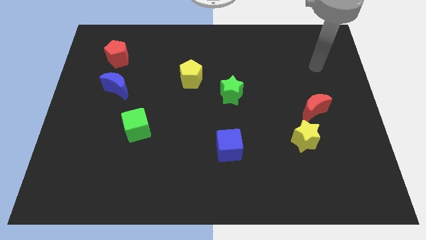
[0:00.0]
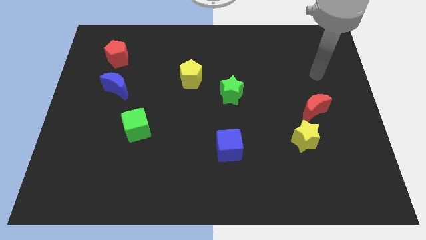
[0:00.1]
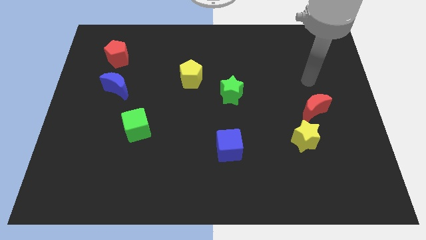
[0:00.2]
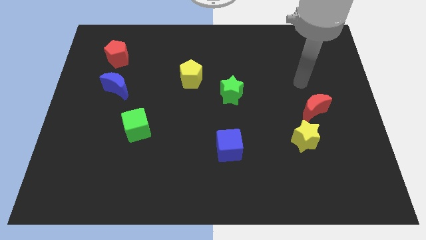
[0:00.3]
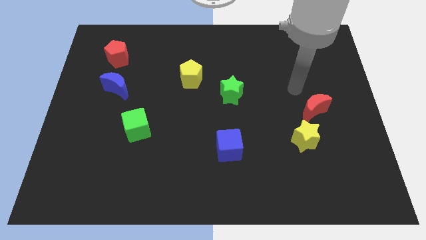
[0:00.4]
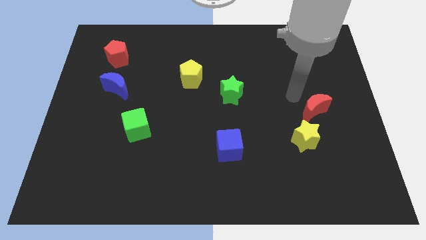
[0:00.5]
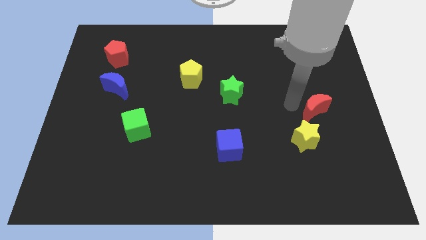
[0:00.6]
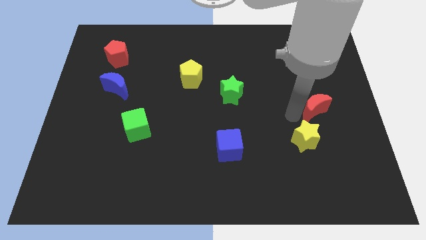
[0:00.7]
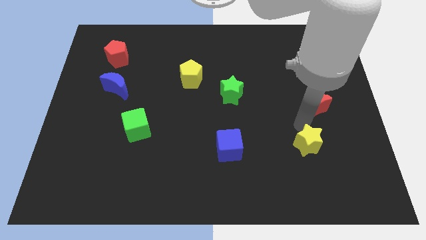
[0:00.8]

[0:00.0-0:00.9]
move the red moon away from the yellow star

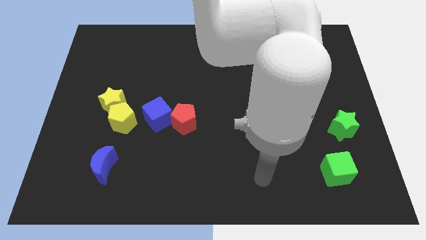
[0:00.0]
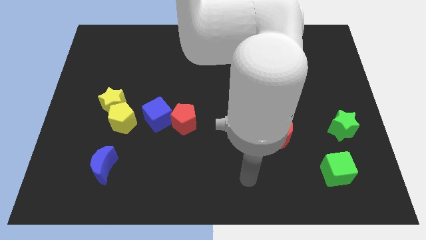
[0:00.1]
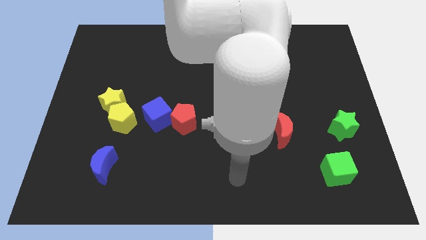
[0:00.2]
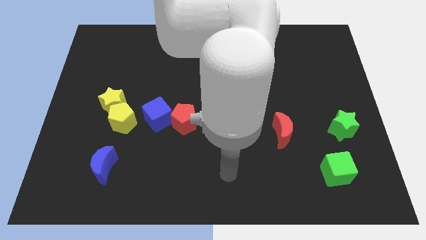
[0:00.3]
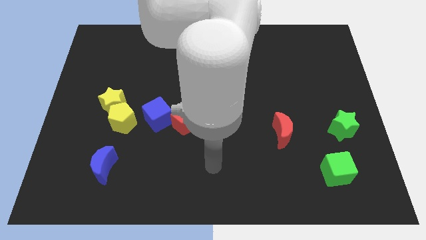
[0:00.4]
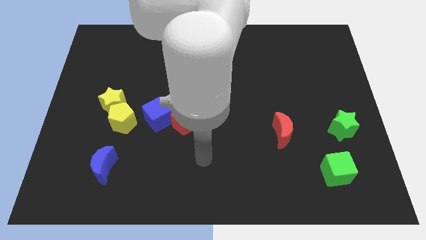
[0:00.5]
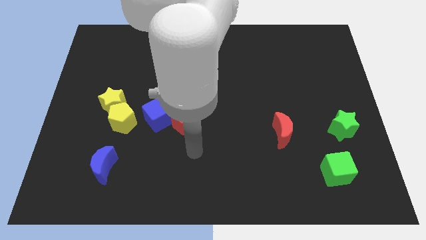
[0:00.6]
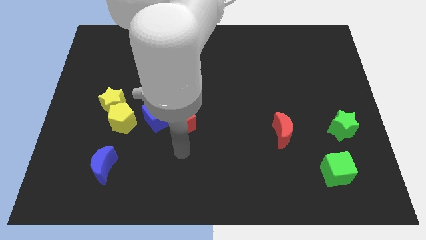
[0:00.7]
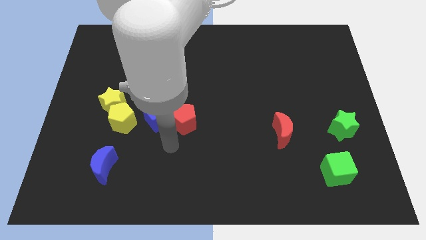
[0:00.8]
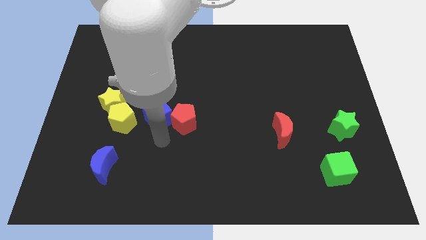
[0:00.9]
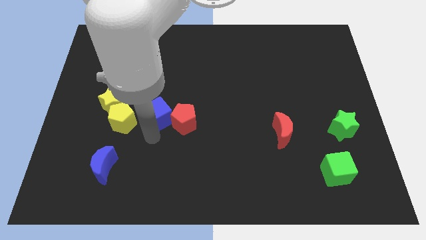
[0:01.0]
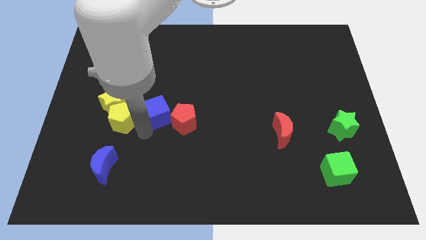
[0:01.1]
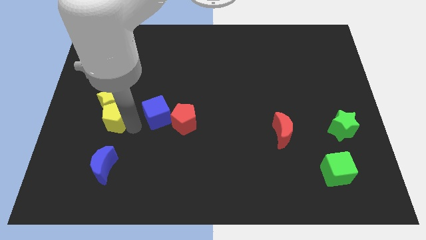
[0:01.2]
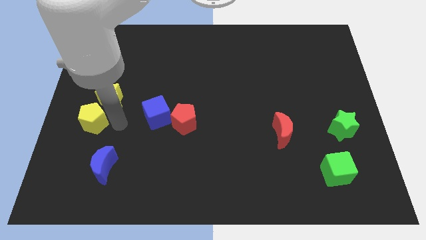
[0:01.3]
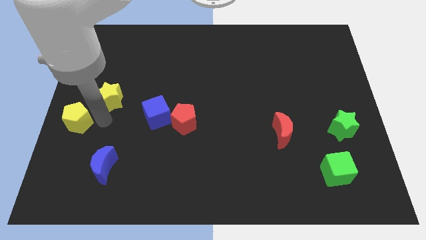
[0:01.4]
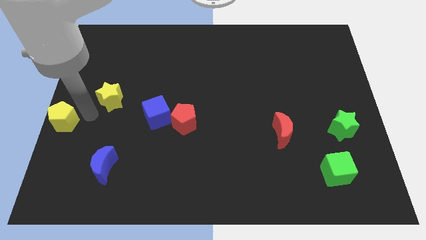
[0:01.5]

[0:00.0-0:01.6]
move the yellow star away from the yellow pentagon

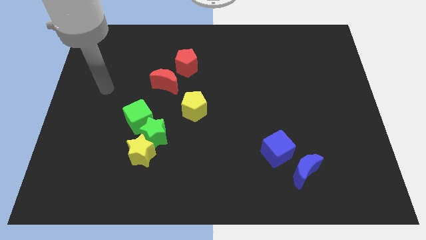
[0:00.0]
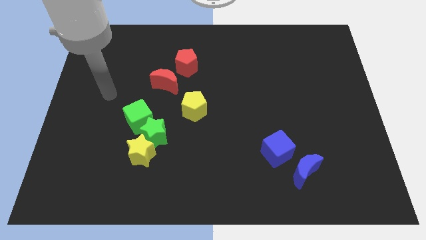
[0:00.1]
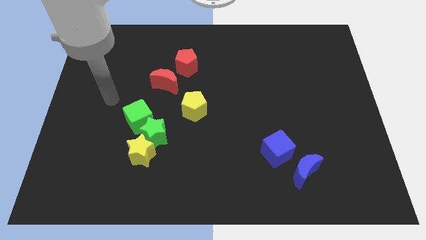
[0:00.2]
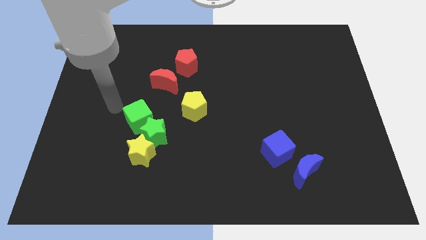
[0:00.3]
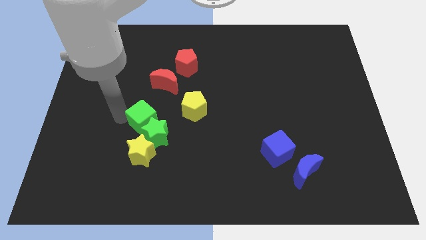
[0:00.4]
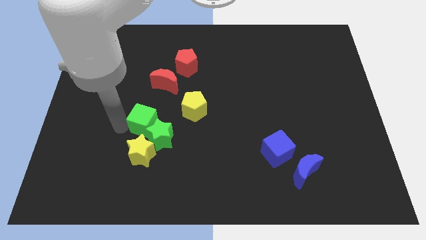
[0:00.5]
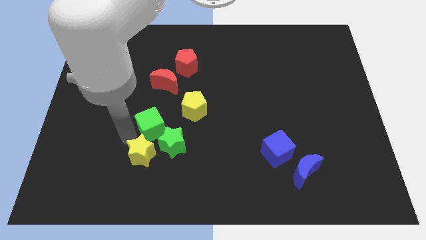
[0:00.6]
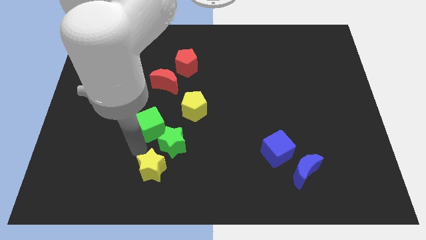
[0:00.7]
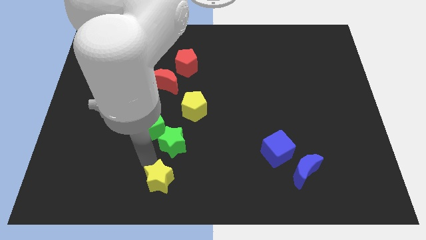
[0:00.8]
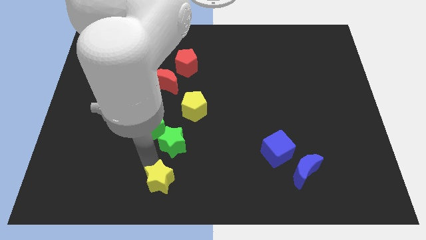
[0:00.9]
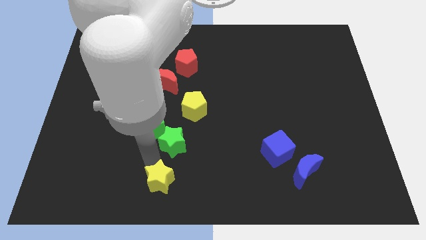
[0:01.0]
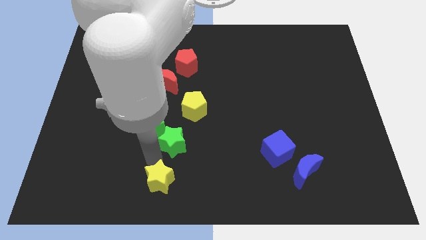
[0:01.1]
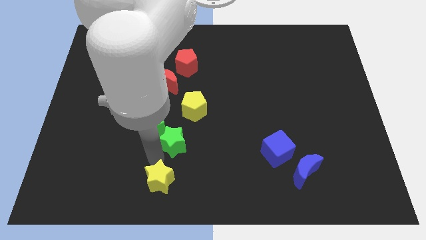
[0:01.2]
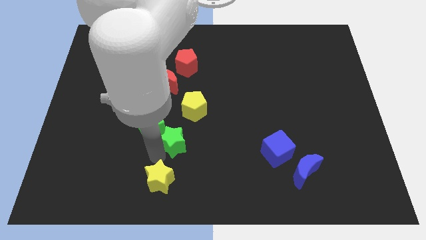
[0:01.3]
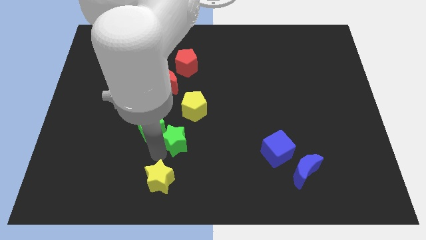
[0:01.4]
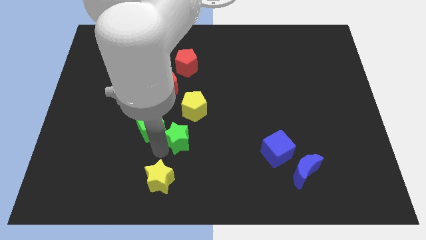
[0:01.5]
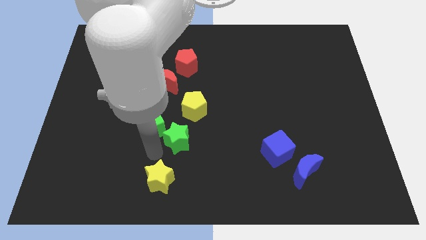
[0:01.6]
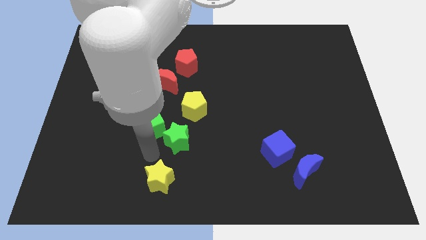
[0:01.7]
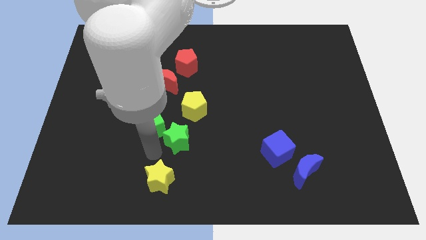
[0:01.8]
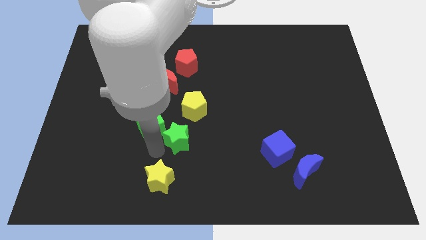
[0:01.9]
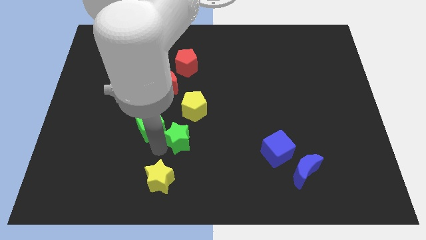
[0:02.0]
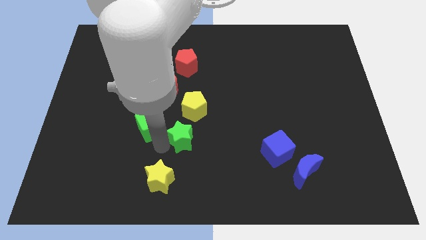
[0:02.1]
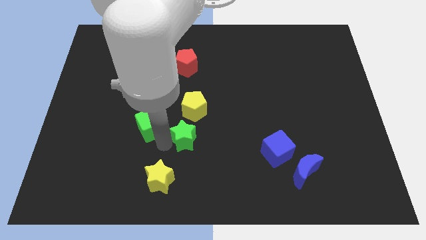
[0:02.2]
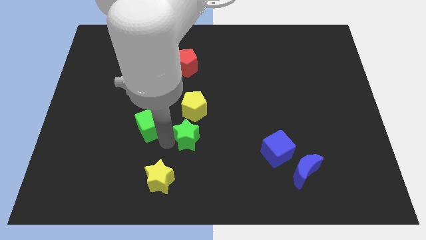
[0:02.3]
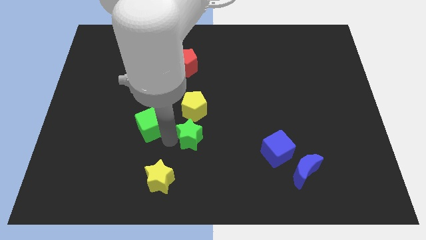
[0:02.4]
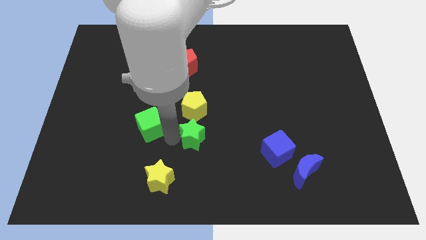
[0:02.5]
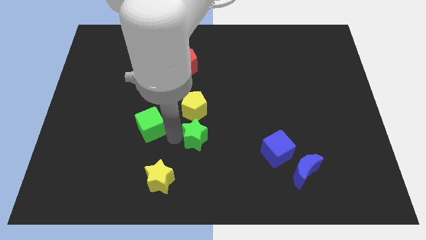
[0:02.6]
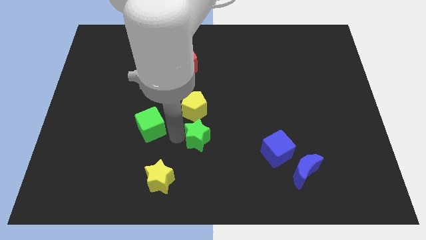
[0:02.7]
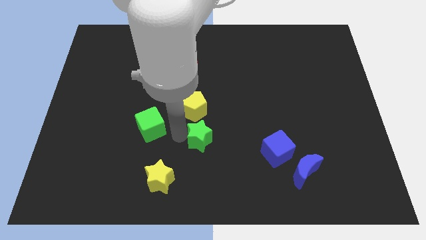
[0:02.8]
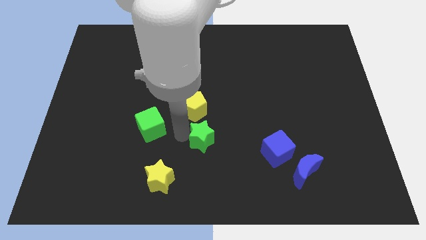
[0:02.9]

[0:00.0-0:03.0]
separate the green star from the yellow star and green cube

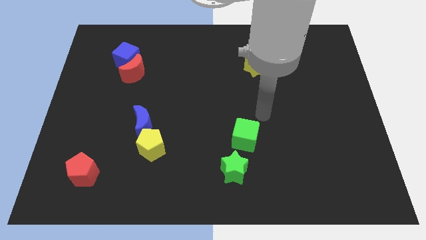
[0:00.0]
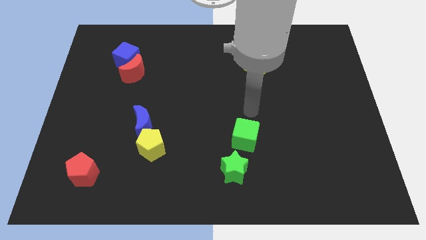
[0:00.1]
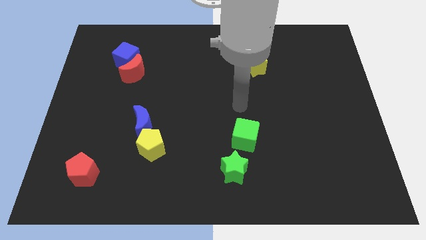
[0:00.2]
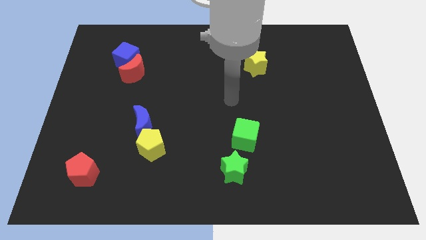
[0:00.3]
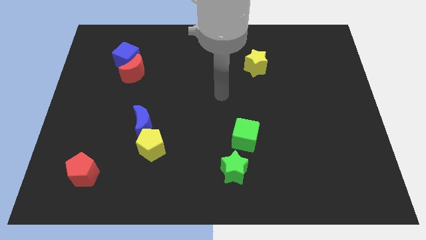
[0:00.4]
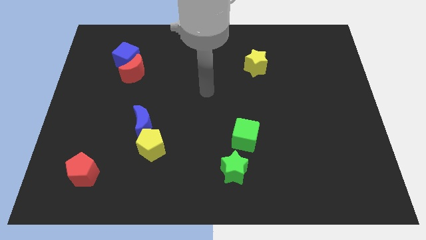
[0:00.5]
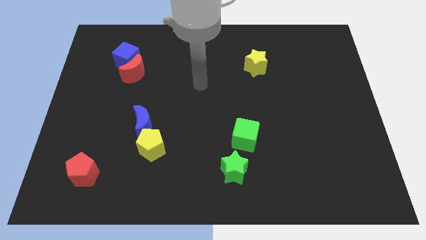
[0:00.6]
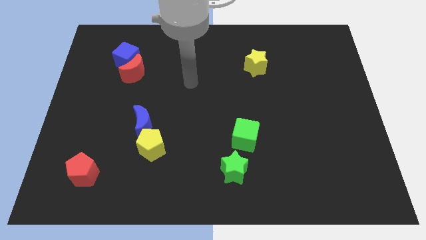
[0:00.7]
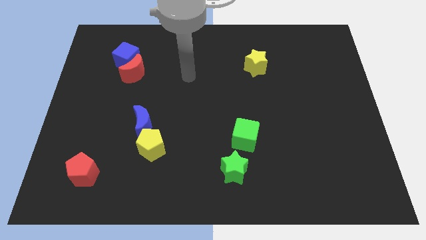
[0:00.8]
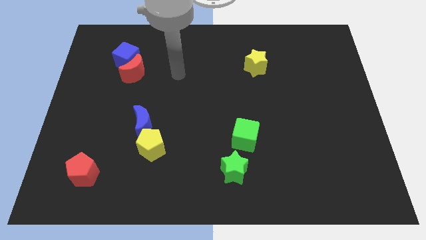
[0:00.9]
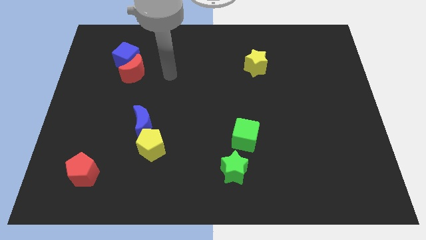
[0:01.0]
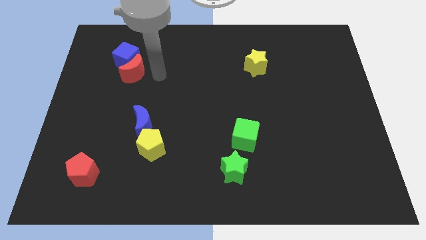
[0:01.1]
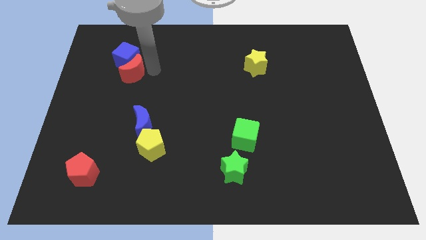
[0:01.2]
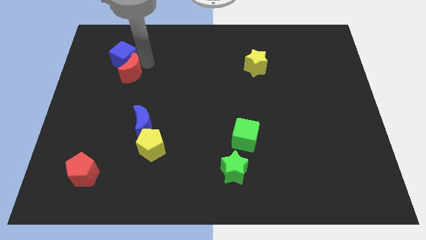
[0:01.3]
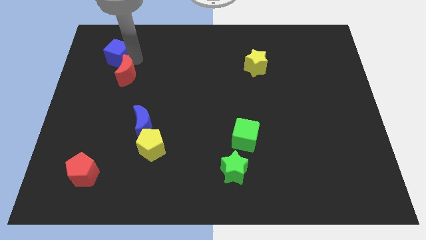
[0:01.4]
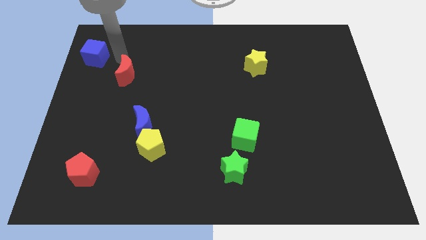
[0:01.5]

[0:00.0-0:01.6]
separate the red moon from the blue cube

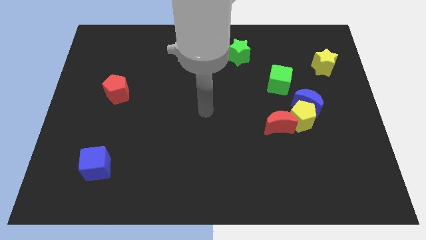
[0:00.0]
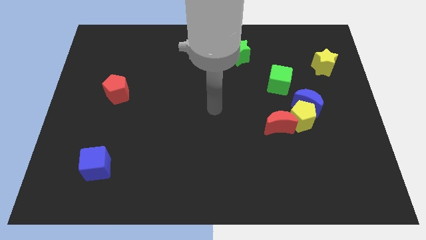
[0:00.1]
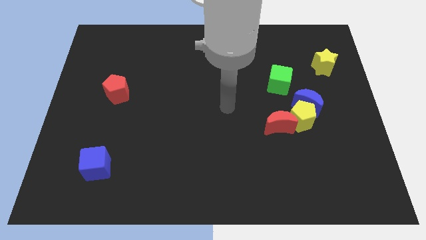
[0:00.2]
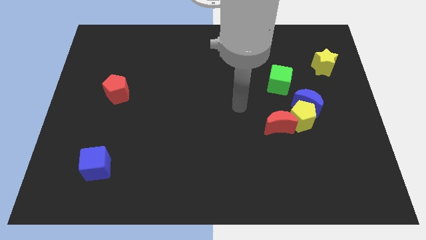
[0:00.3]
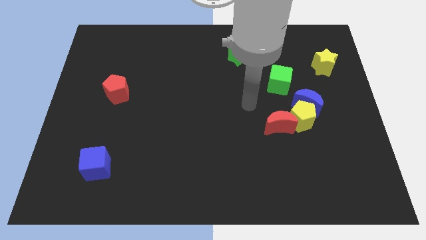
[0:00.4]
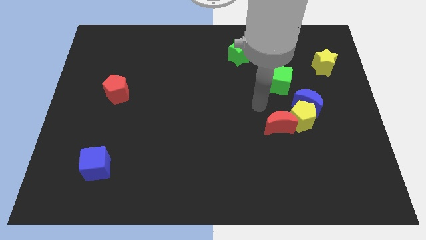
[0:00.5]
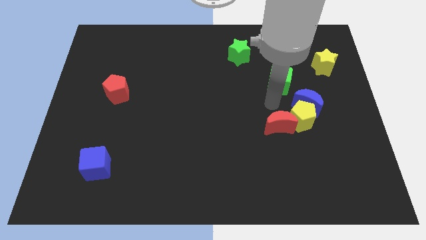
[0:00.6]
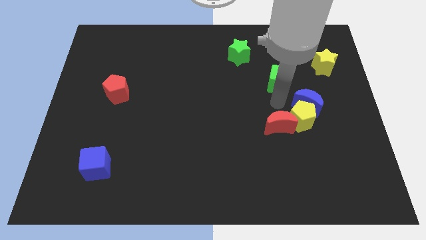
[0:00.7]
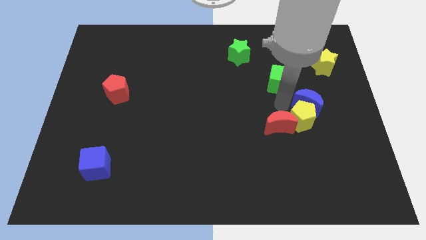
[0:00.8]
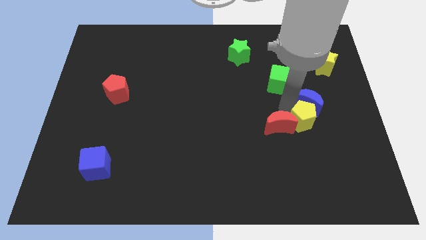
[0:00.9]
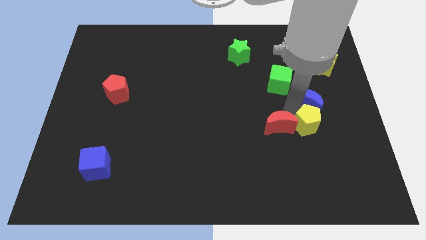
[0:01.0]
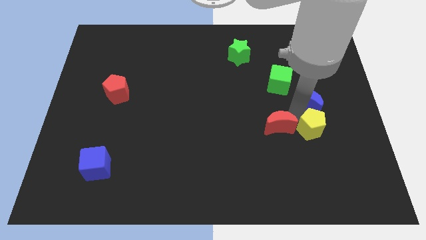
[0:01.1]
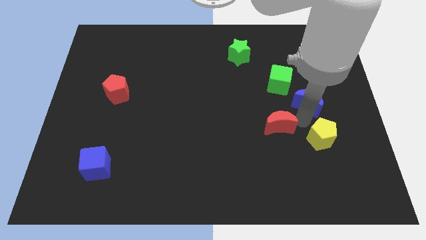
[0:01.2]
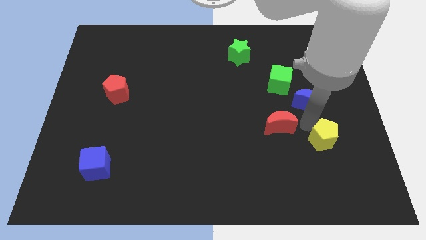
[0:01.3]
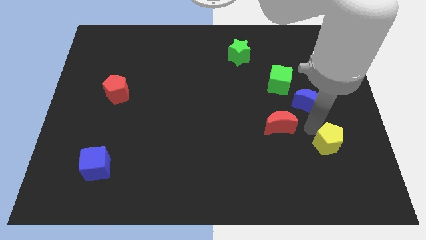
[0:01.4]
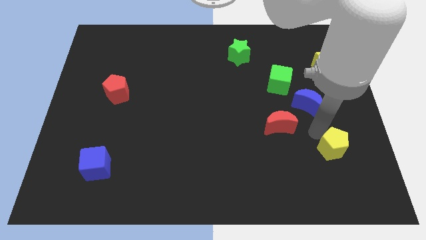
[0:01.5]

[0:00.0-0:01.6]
move the yellow pentagon away from the blue moon and red moon

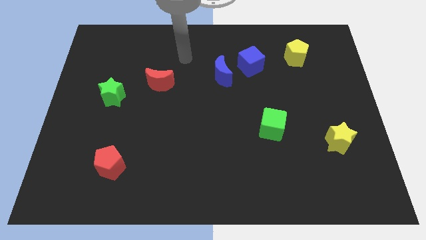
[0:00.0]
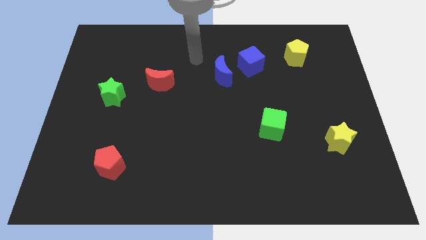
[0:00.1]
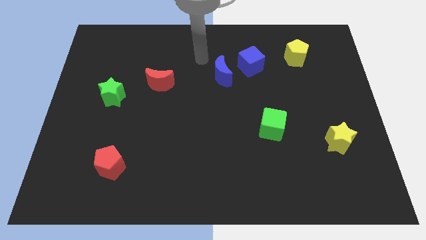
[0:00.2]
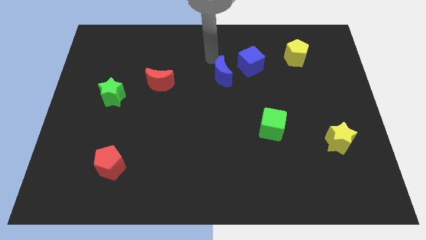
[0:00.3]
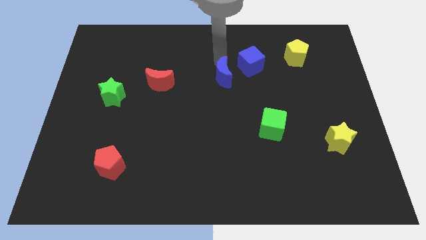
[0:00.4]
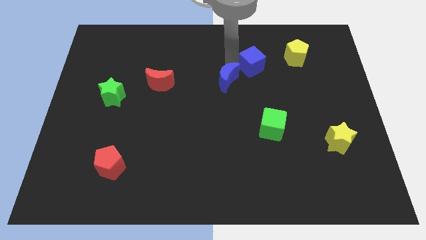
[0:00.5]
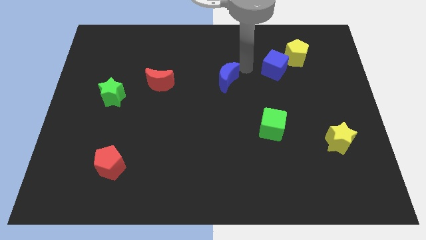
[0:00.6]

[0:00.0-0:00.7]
separate the blue moon from the blue cube
